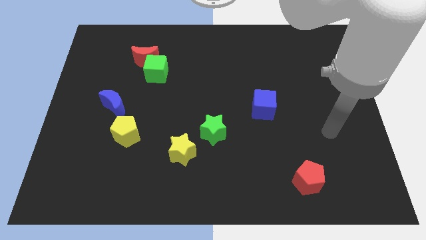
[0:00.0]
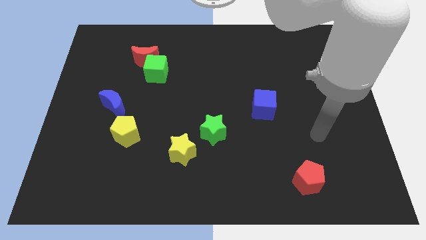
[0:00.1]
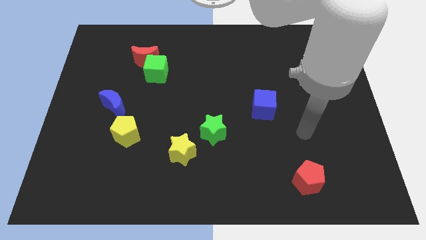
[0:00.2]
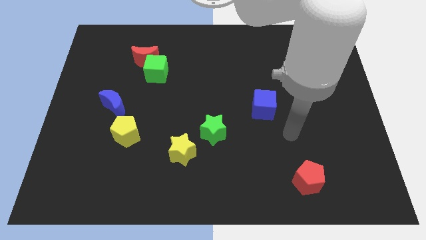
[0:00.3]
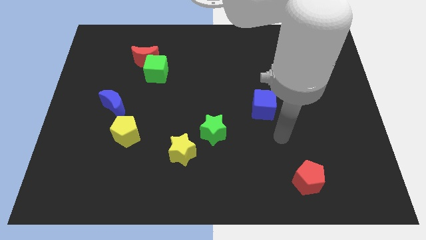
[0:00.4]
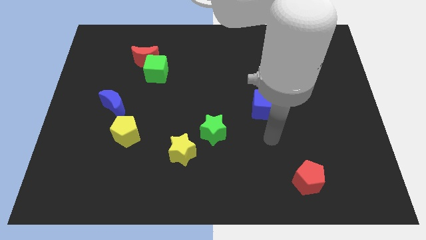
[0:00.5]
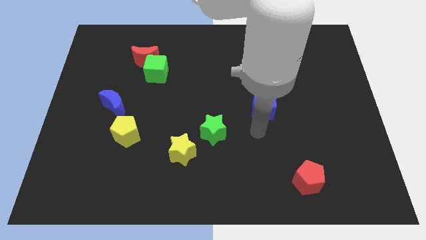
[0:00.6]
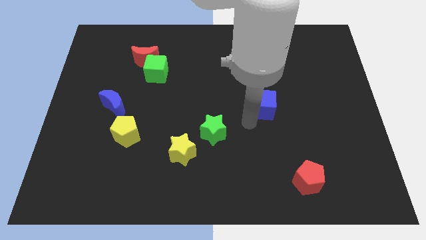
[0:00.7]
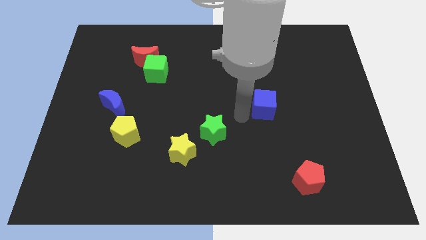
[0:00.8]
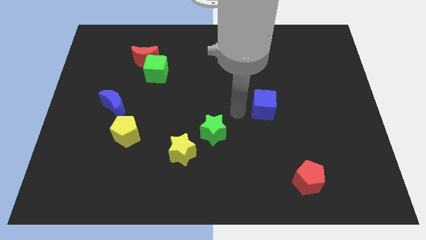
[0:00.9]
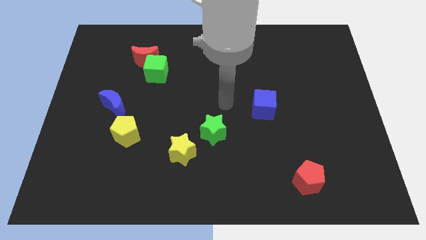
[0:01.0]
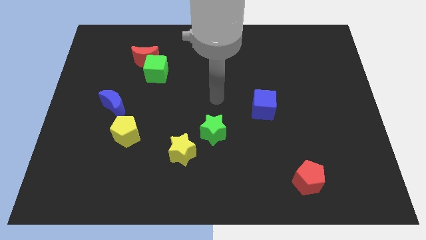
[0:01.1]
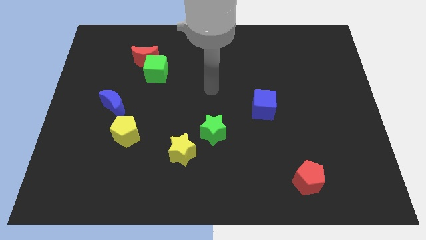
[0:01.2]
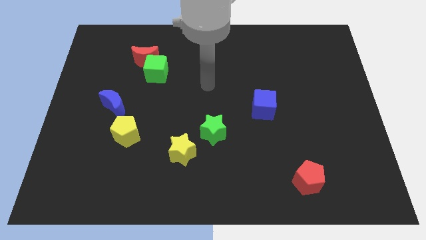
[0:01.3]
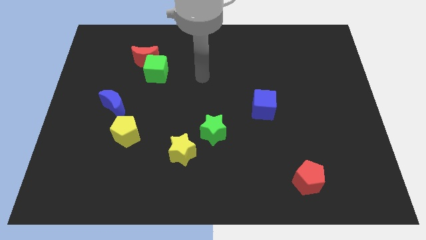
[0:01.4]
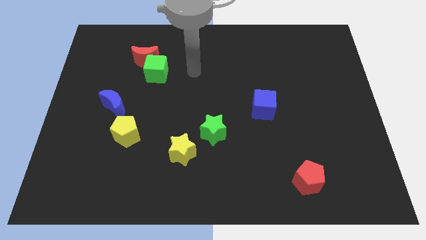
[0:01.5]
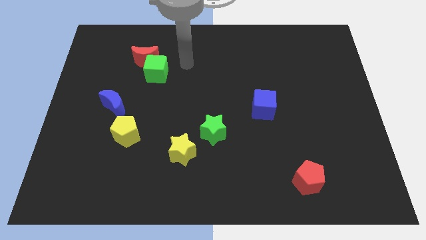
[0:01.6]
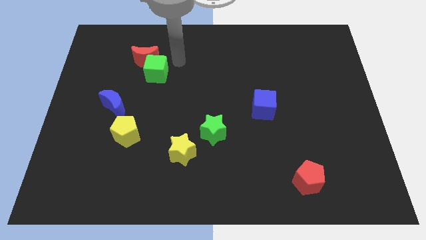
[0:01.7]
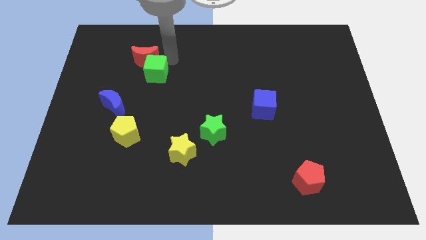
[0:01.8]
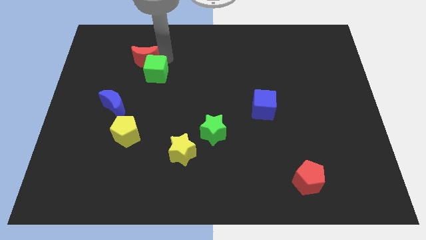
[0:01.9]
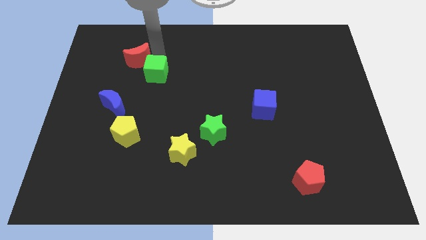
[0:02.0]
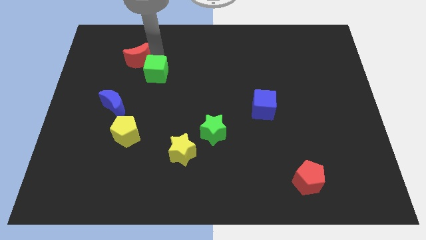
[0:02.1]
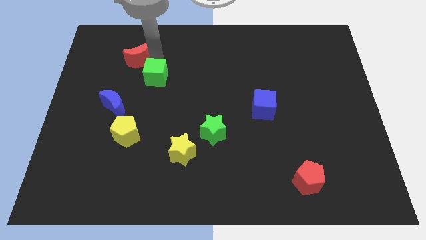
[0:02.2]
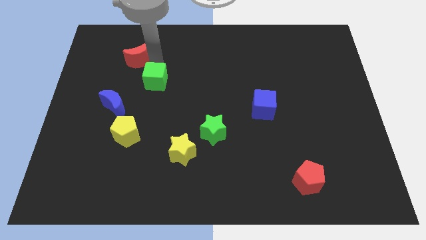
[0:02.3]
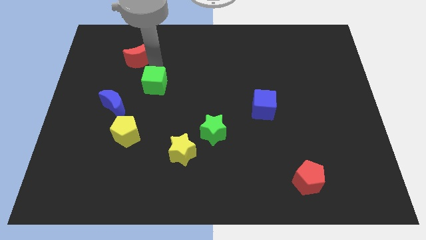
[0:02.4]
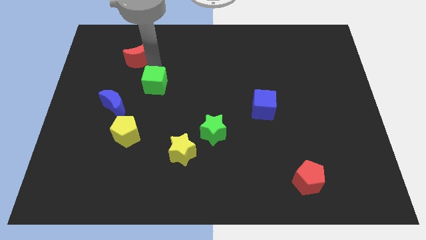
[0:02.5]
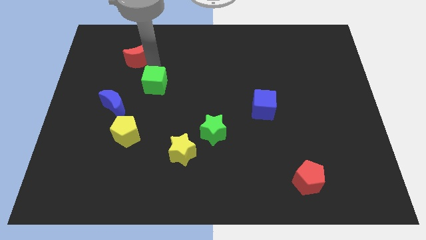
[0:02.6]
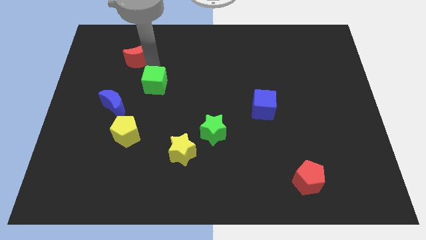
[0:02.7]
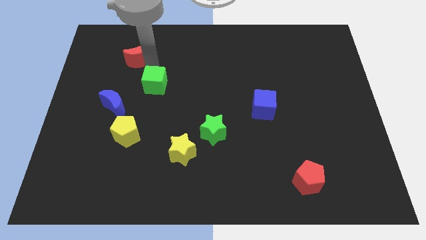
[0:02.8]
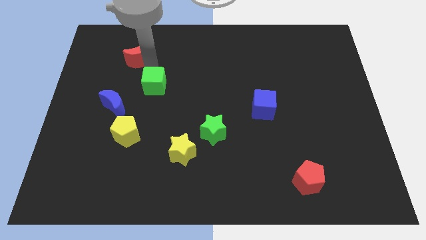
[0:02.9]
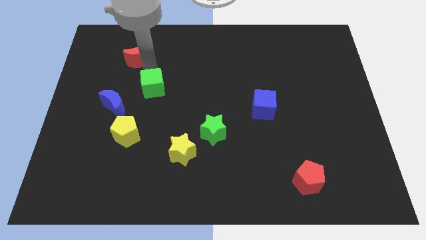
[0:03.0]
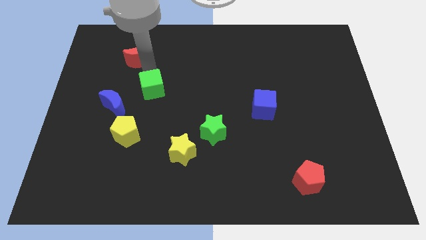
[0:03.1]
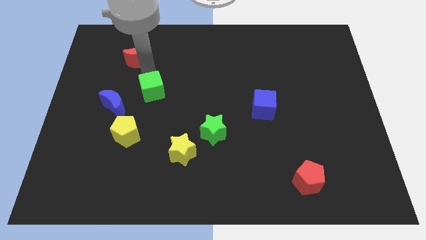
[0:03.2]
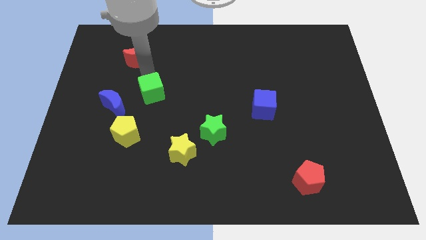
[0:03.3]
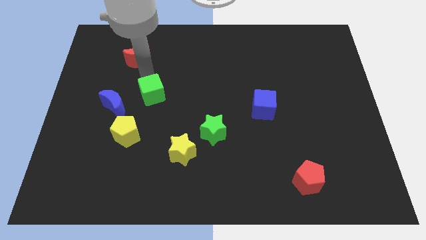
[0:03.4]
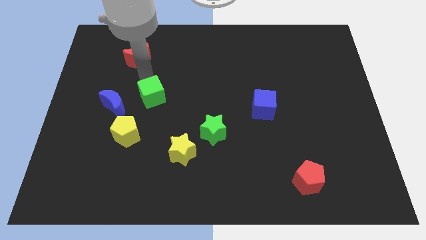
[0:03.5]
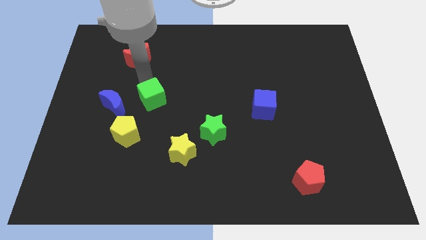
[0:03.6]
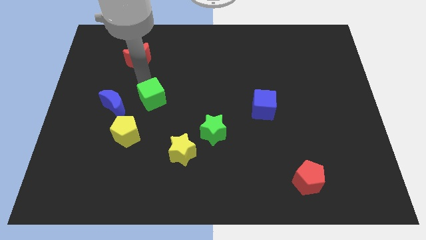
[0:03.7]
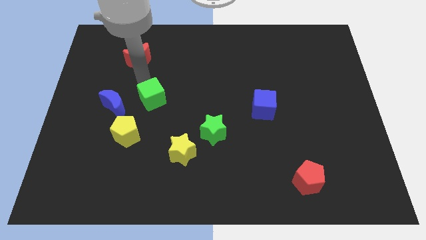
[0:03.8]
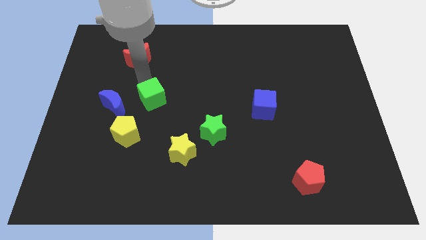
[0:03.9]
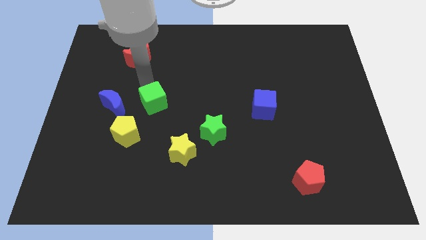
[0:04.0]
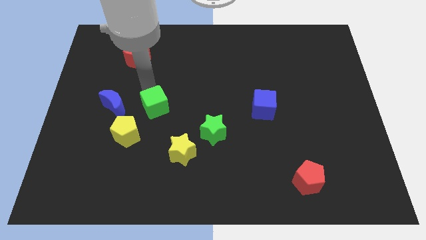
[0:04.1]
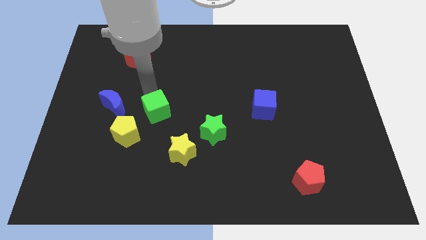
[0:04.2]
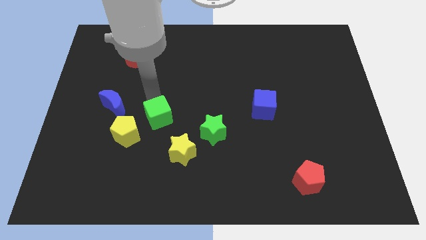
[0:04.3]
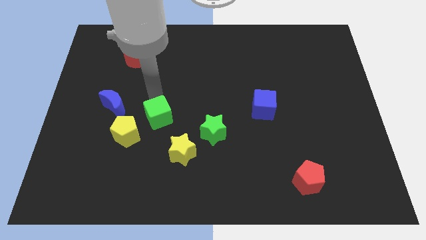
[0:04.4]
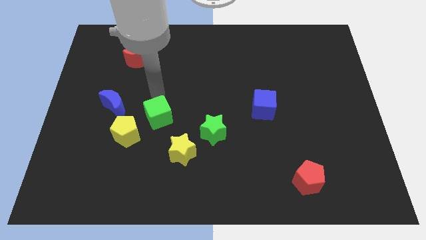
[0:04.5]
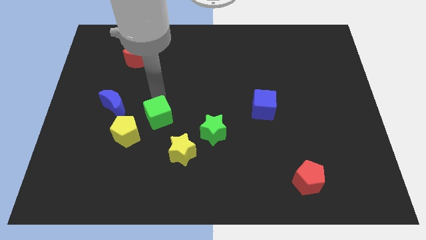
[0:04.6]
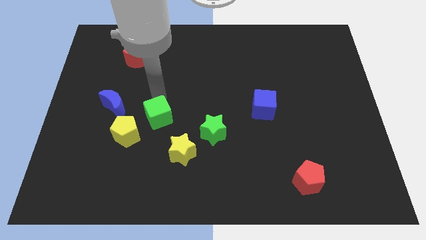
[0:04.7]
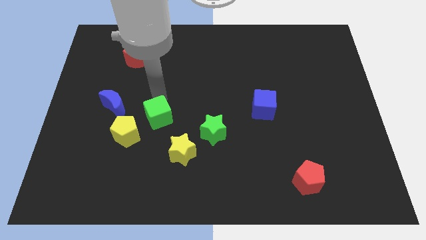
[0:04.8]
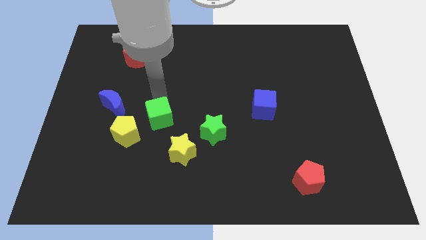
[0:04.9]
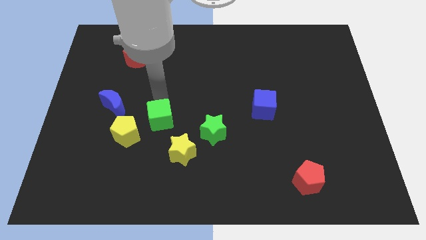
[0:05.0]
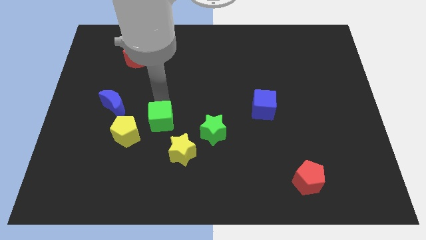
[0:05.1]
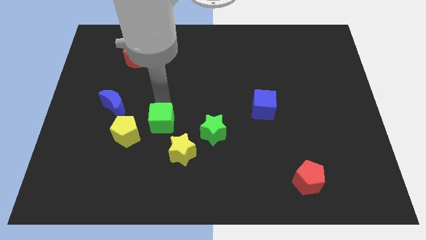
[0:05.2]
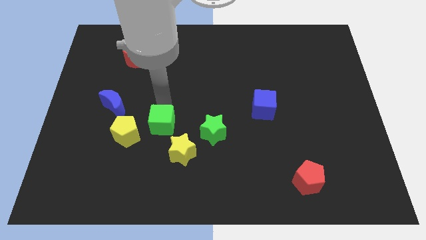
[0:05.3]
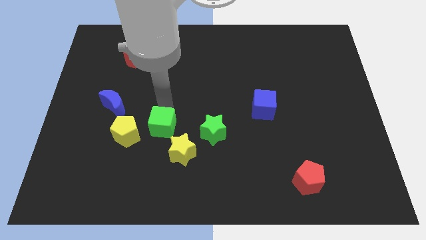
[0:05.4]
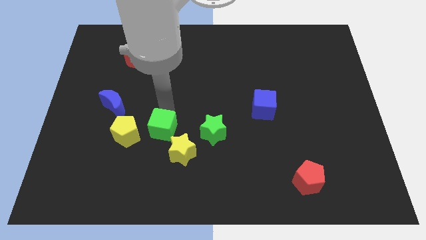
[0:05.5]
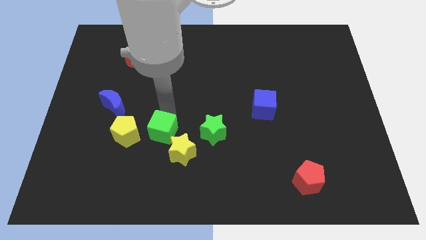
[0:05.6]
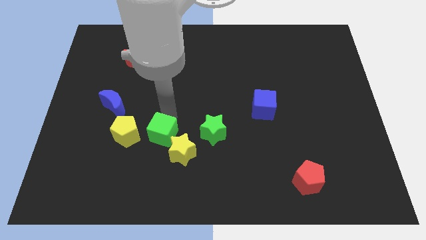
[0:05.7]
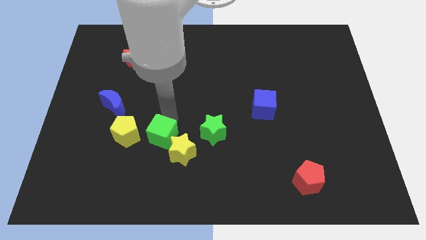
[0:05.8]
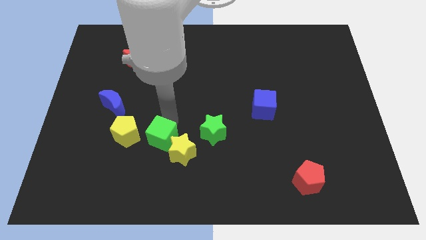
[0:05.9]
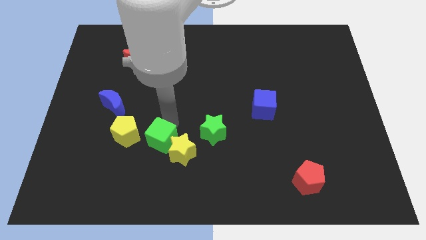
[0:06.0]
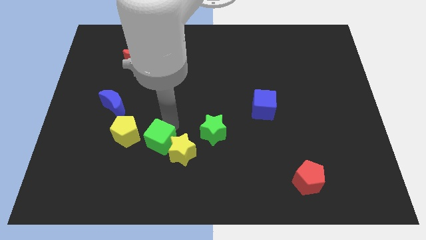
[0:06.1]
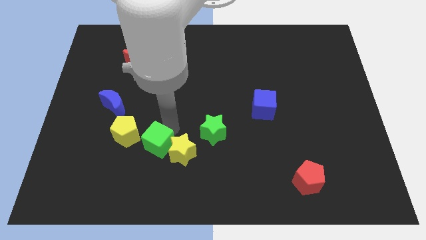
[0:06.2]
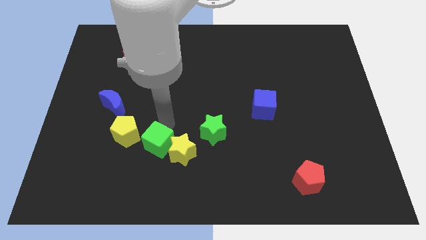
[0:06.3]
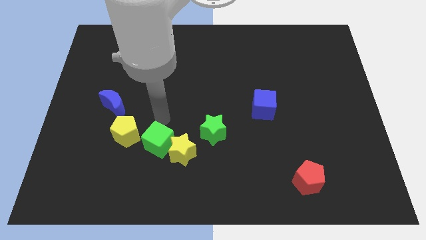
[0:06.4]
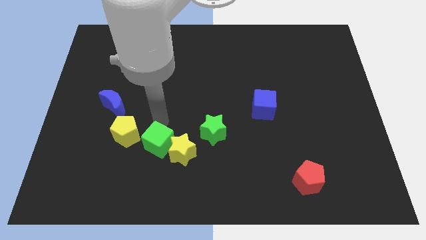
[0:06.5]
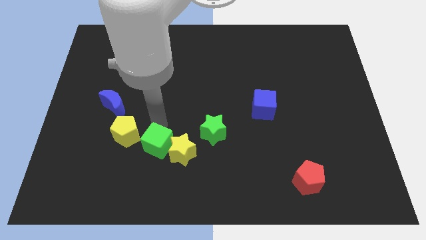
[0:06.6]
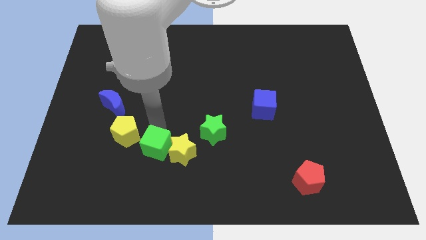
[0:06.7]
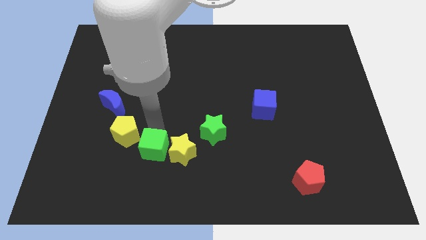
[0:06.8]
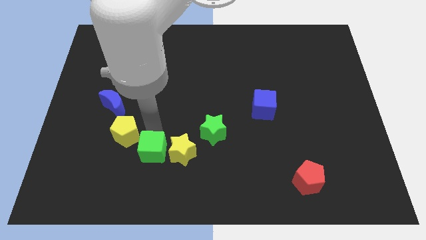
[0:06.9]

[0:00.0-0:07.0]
slide the green cube diagonally down and to the left of the yellow star

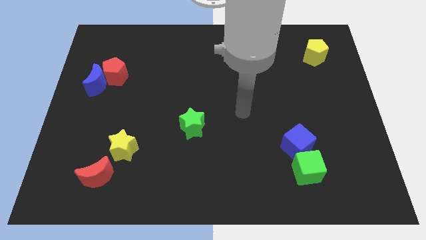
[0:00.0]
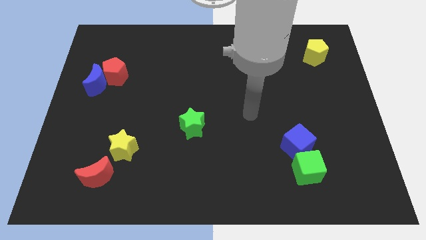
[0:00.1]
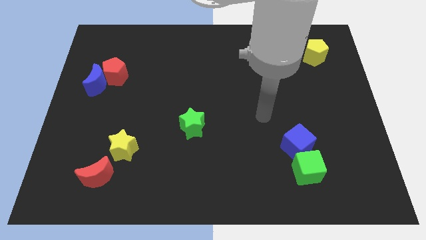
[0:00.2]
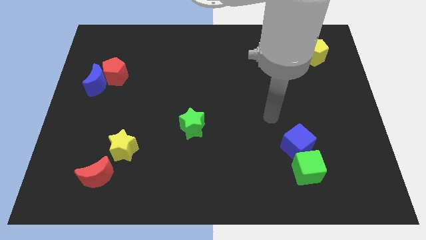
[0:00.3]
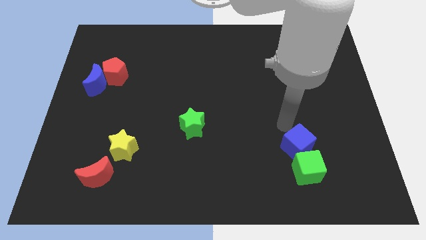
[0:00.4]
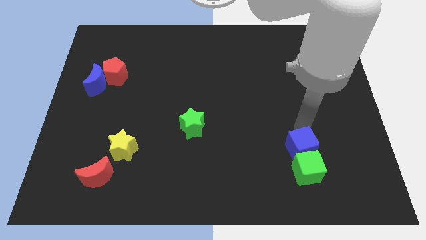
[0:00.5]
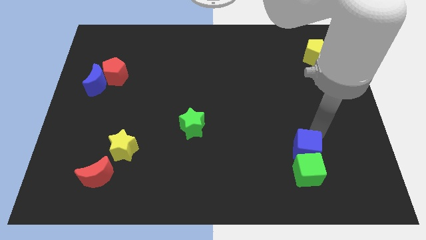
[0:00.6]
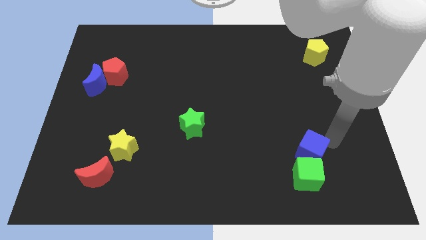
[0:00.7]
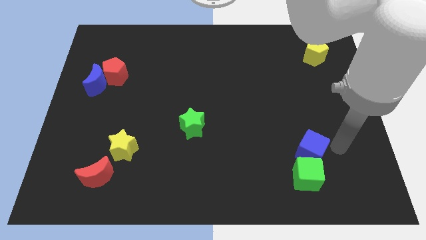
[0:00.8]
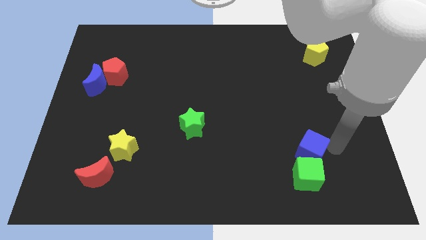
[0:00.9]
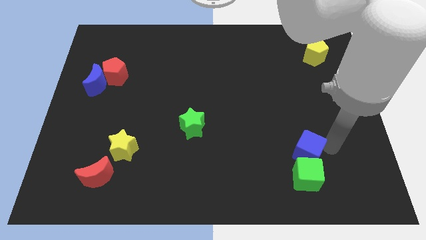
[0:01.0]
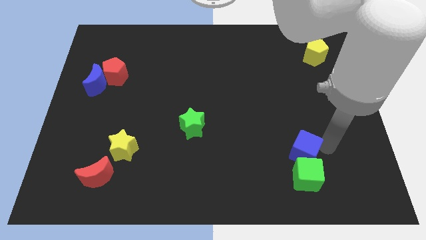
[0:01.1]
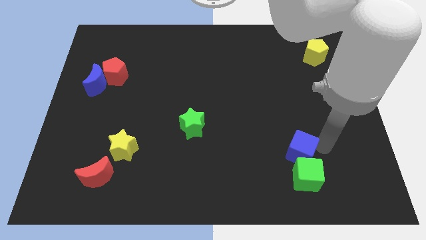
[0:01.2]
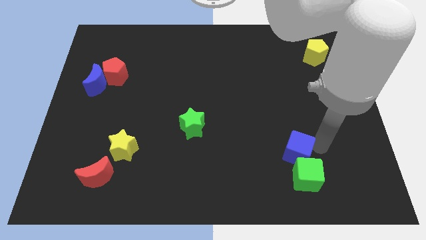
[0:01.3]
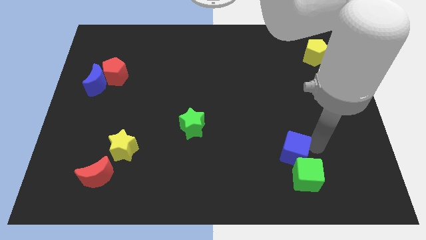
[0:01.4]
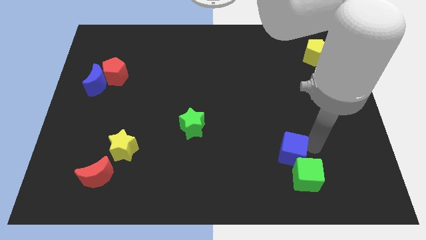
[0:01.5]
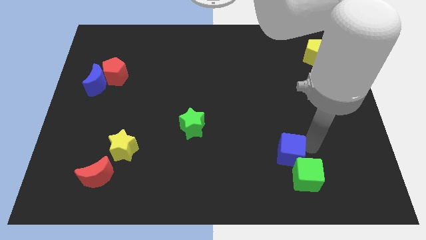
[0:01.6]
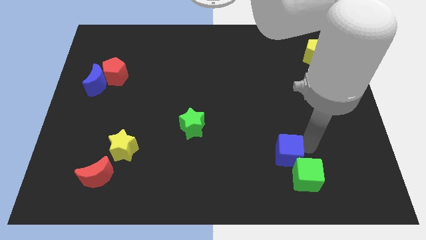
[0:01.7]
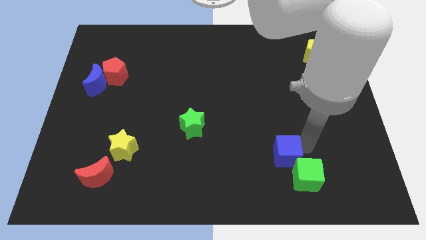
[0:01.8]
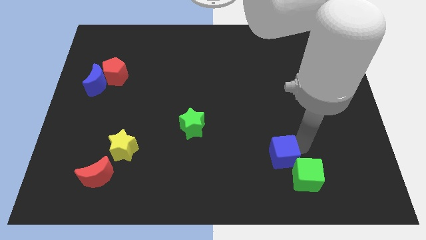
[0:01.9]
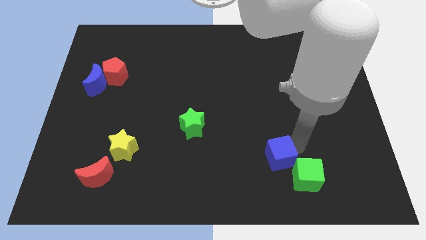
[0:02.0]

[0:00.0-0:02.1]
push the blue cube just left of the green cube
